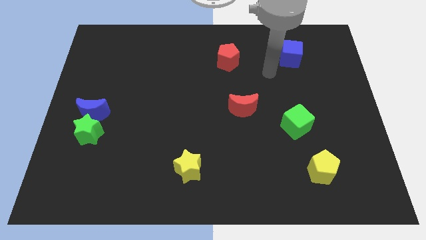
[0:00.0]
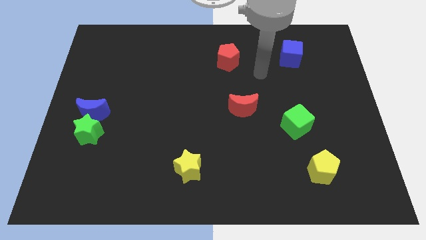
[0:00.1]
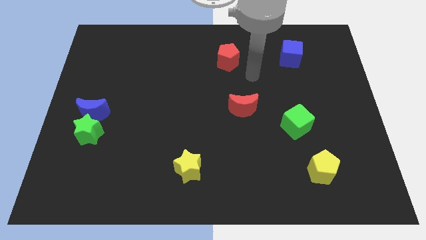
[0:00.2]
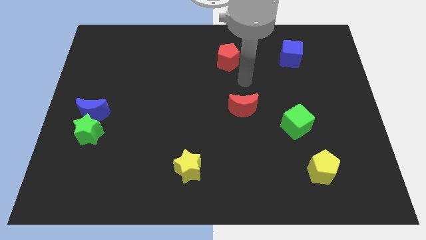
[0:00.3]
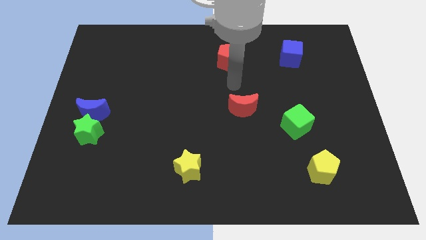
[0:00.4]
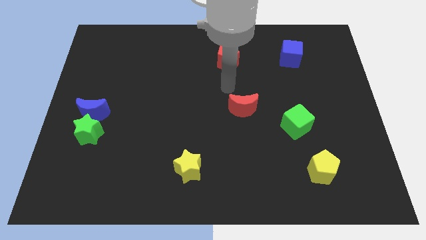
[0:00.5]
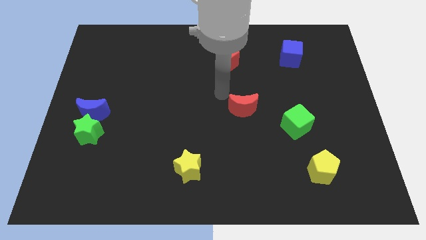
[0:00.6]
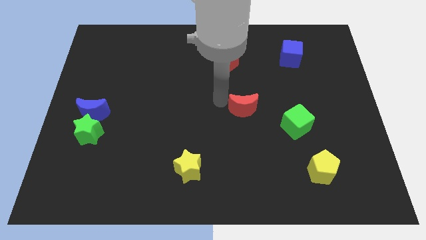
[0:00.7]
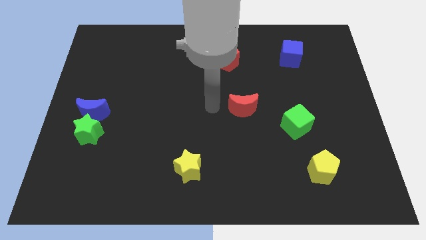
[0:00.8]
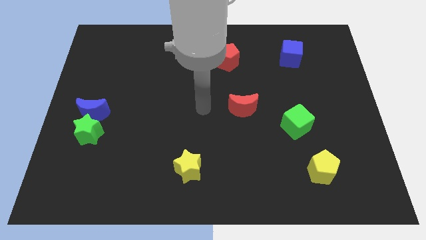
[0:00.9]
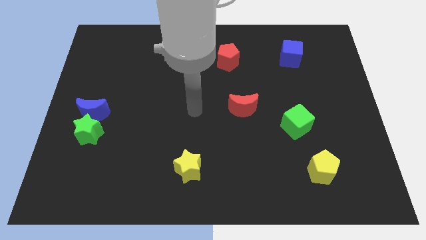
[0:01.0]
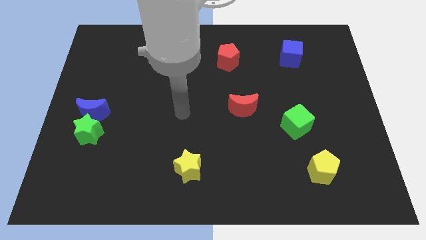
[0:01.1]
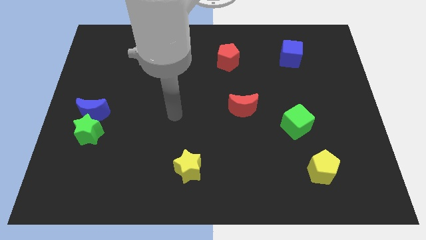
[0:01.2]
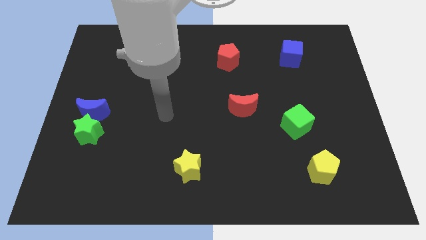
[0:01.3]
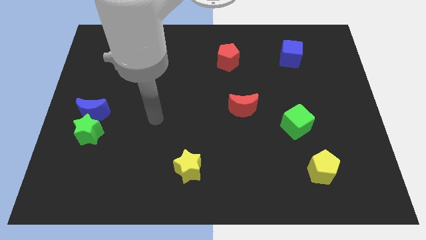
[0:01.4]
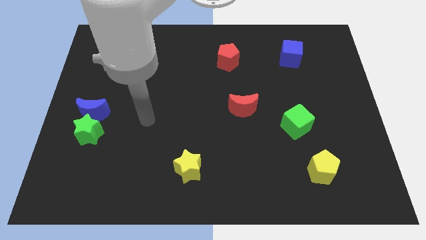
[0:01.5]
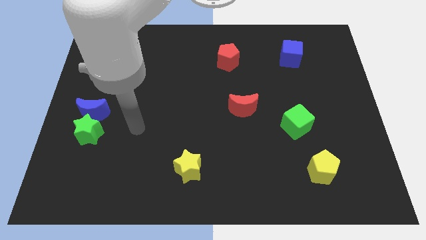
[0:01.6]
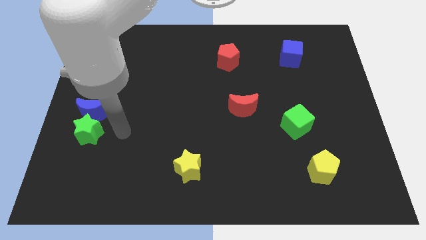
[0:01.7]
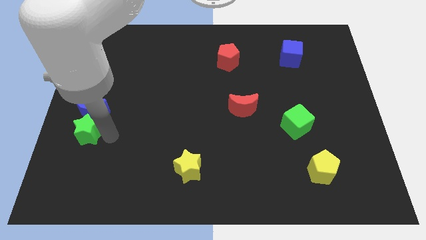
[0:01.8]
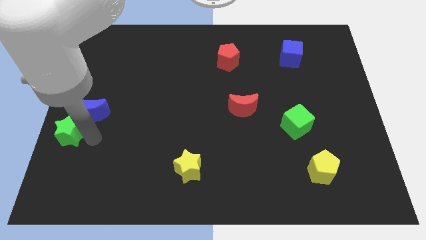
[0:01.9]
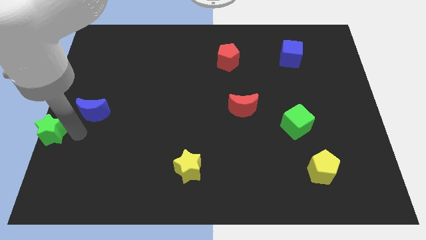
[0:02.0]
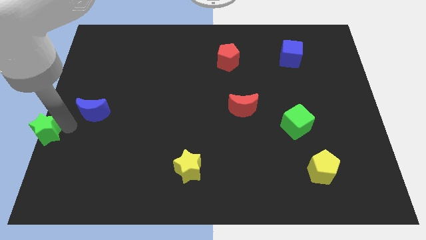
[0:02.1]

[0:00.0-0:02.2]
move the blue moon away from the green star

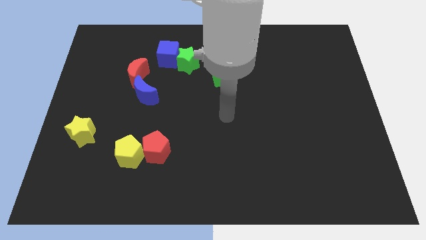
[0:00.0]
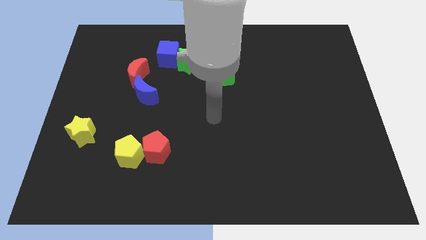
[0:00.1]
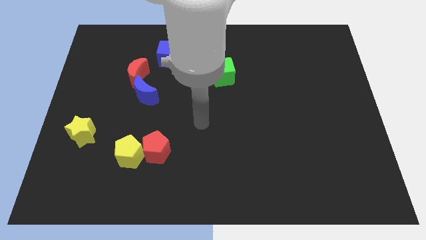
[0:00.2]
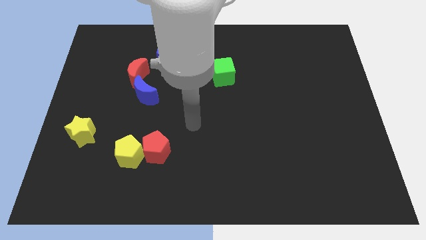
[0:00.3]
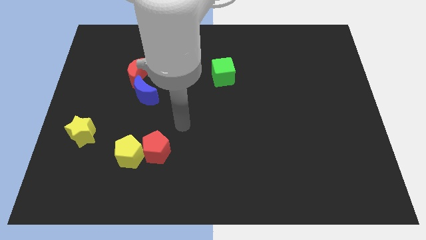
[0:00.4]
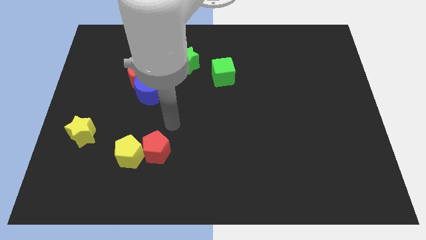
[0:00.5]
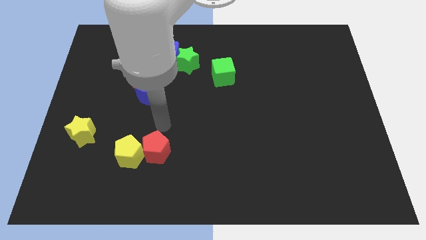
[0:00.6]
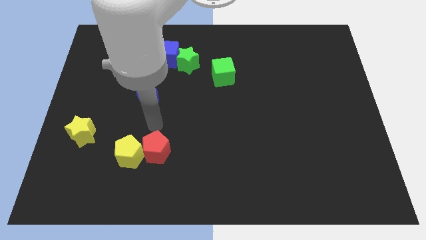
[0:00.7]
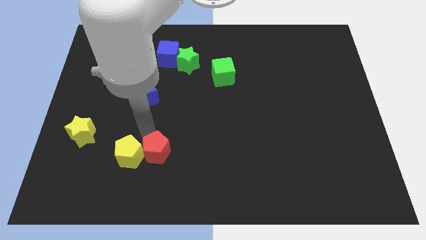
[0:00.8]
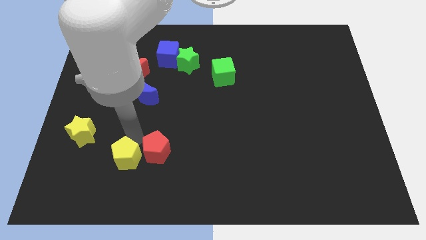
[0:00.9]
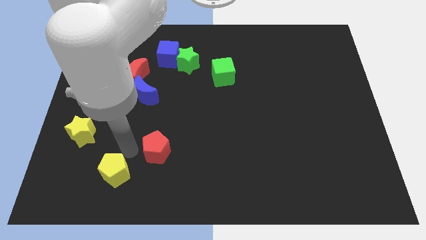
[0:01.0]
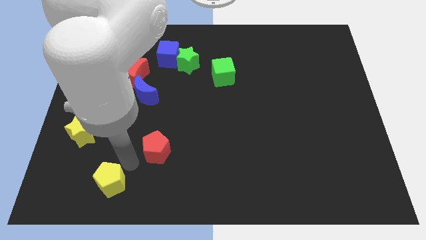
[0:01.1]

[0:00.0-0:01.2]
separate the red pentagon from the yellow pentagon

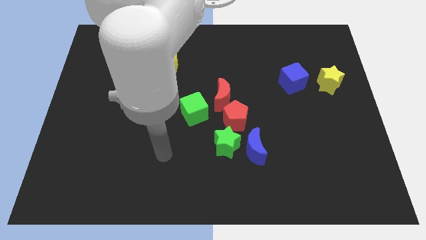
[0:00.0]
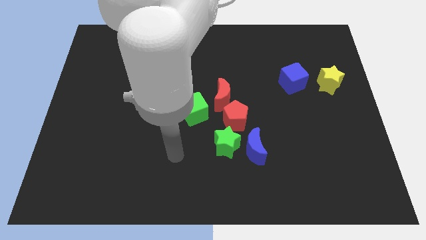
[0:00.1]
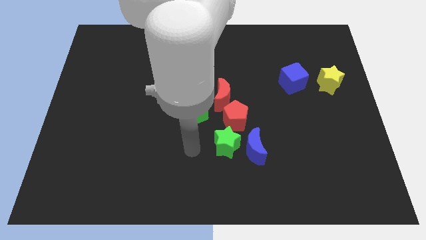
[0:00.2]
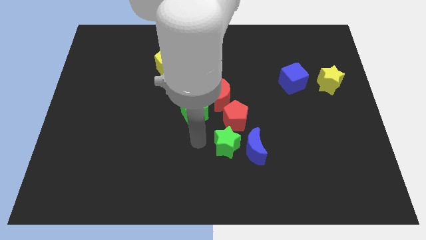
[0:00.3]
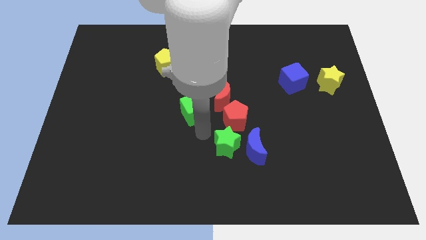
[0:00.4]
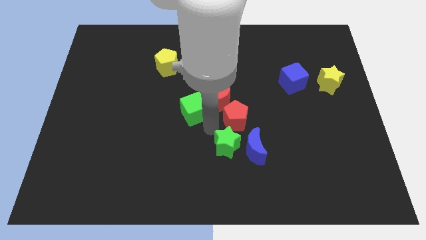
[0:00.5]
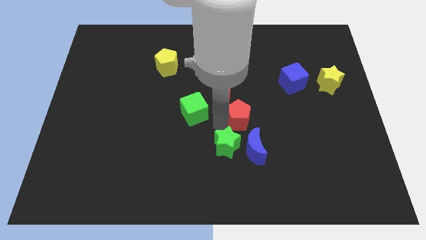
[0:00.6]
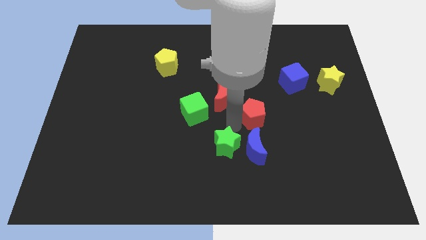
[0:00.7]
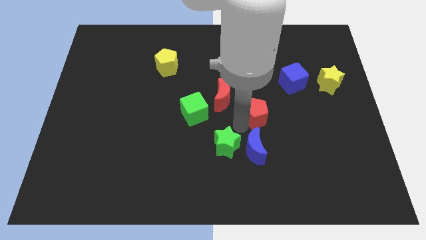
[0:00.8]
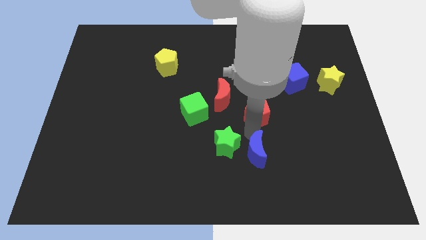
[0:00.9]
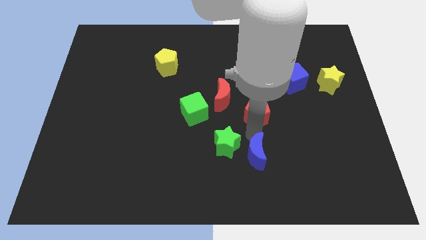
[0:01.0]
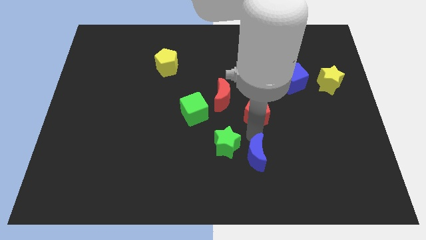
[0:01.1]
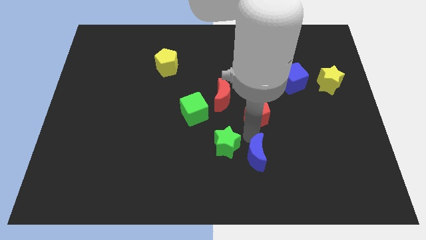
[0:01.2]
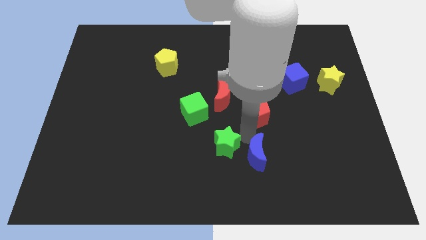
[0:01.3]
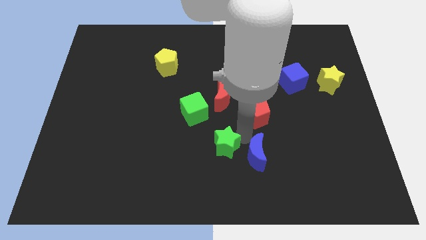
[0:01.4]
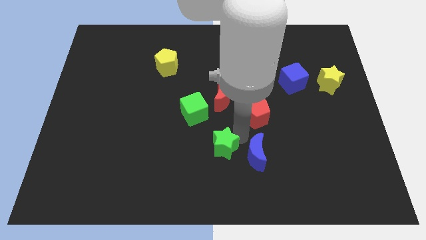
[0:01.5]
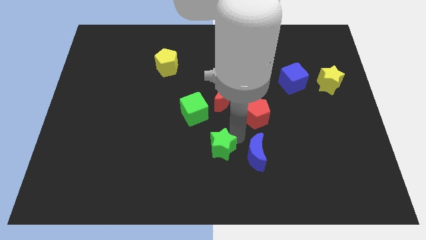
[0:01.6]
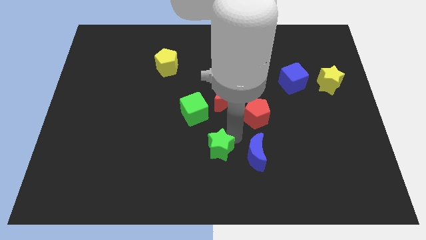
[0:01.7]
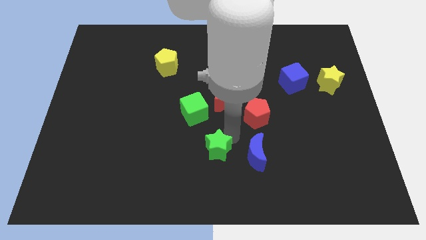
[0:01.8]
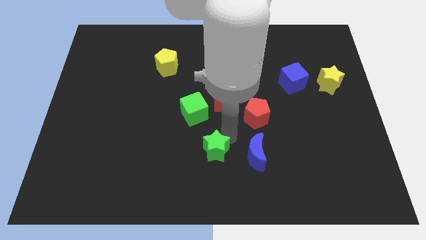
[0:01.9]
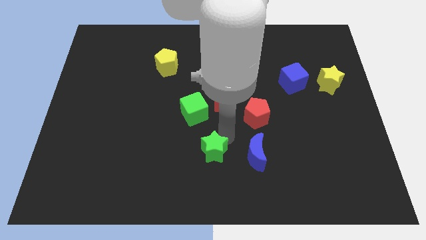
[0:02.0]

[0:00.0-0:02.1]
move the green star away from the blue moon and red pentagon

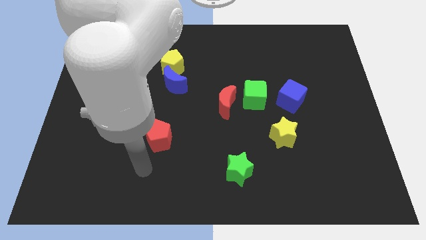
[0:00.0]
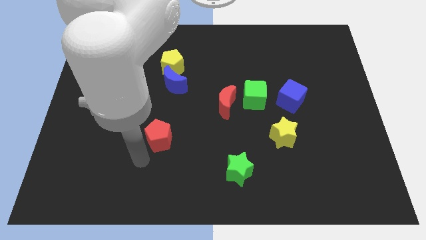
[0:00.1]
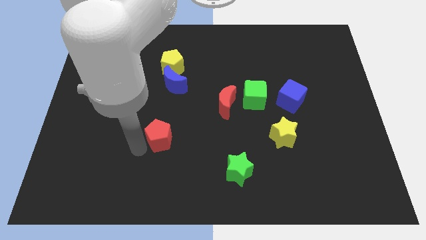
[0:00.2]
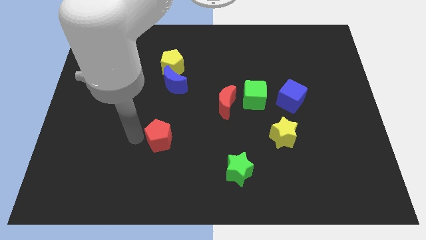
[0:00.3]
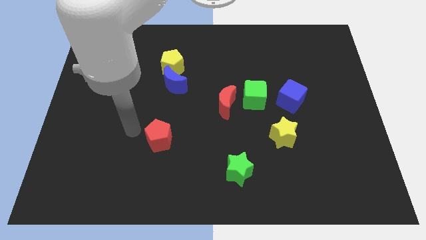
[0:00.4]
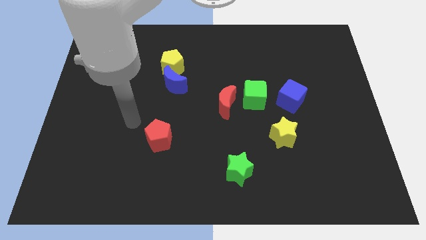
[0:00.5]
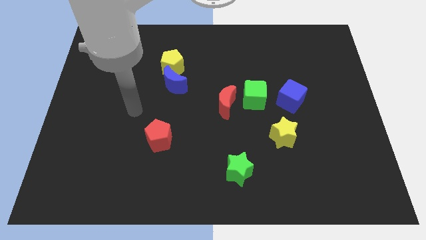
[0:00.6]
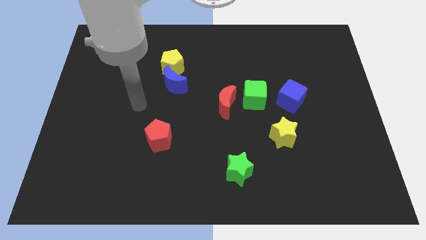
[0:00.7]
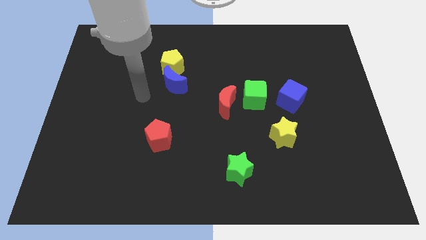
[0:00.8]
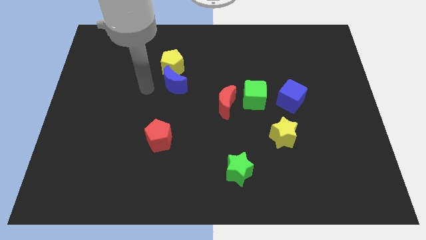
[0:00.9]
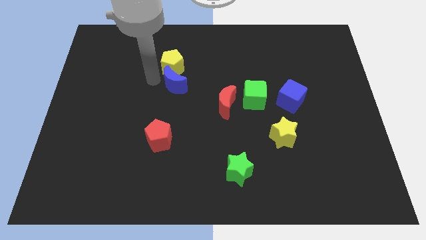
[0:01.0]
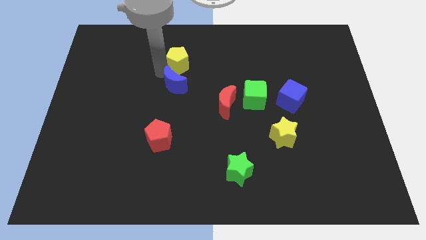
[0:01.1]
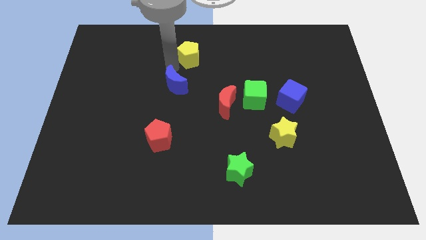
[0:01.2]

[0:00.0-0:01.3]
pull the blue moon apart from the yellow pentagon

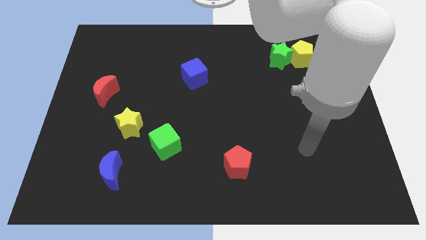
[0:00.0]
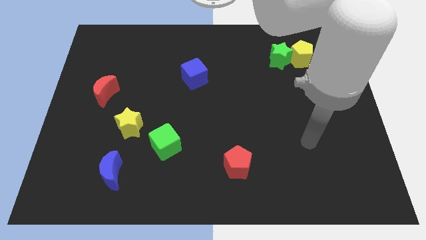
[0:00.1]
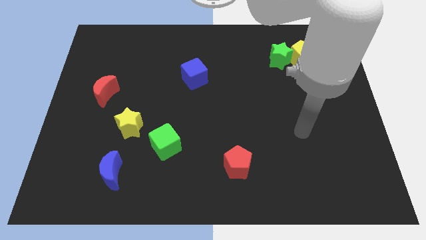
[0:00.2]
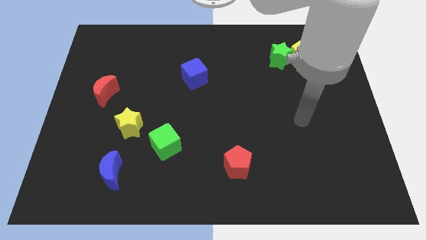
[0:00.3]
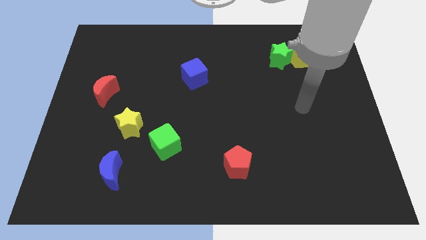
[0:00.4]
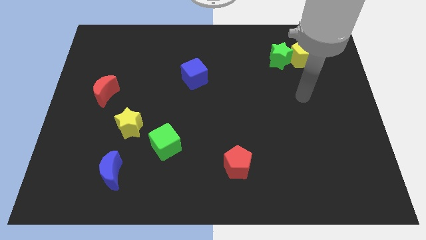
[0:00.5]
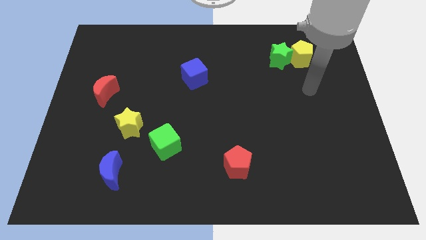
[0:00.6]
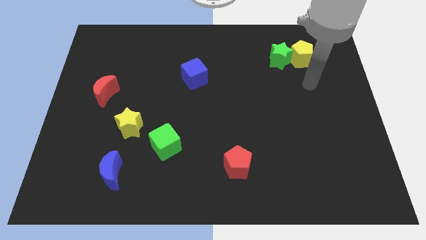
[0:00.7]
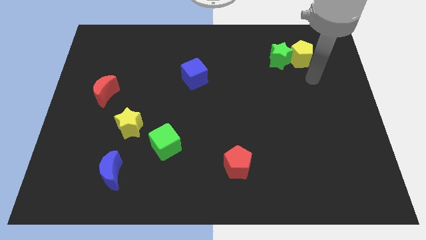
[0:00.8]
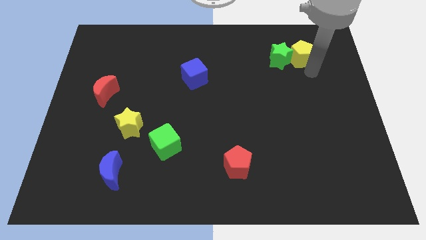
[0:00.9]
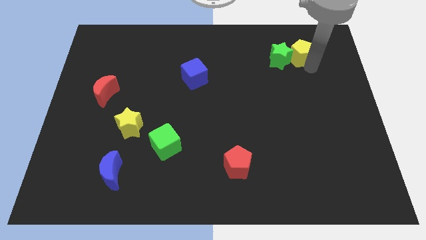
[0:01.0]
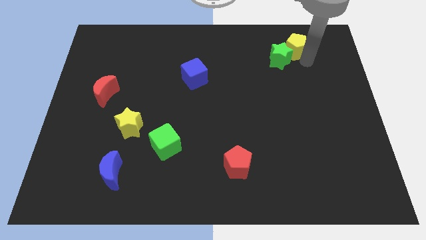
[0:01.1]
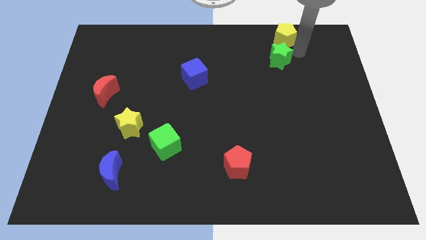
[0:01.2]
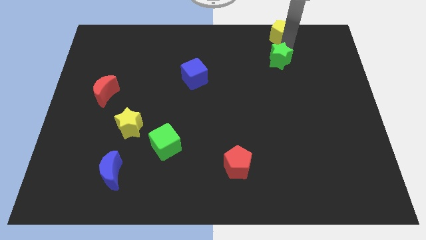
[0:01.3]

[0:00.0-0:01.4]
separate the green star from the yellow pentagon

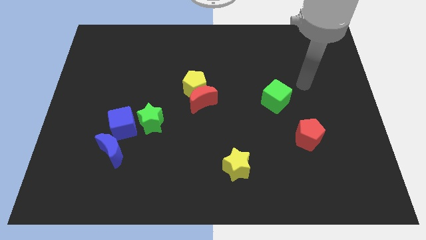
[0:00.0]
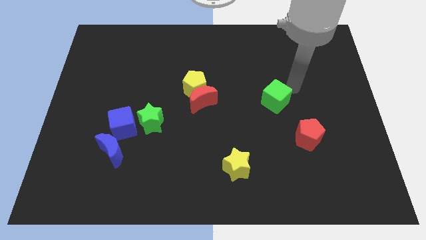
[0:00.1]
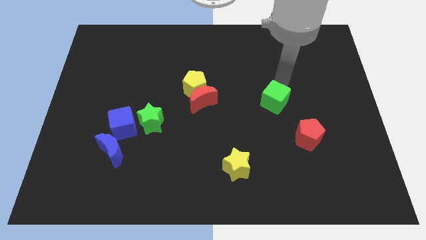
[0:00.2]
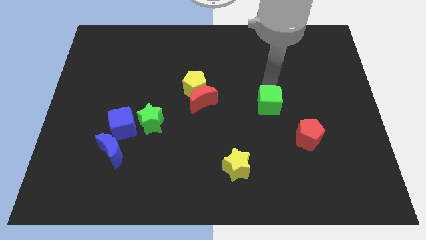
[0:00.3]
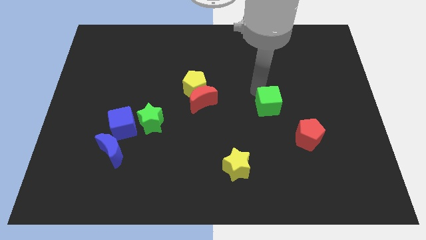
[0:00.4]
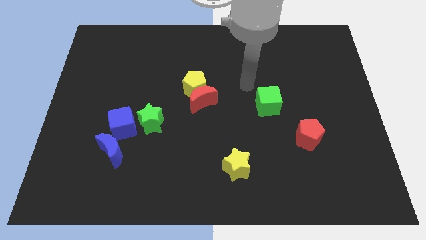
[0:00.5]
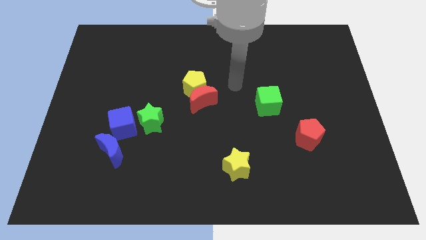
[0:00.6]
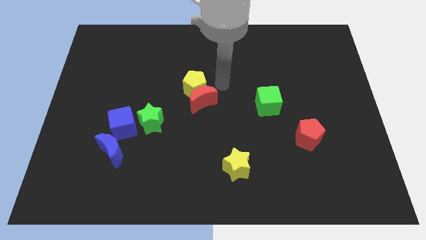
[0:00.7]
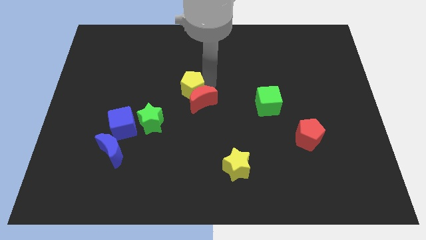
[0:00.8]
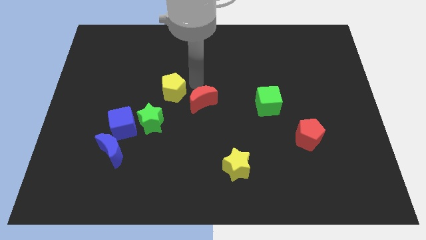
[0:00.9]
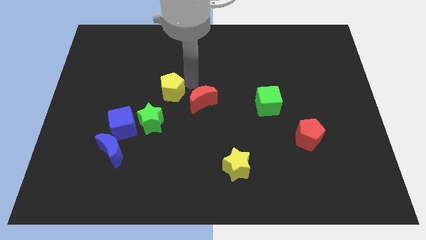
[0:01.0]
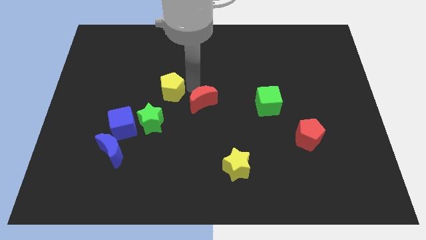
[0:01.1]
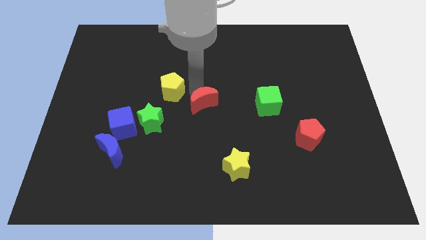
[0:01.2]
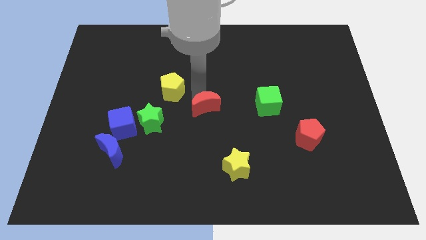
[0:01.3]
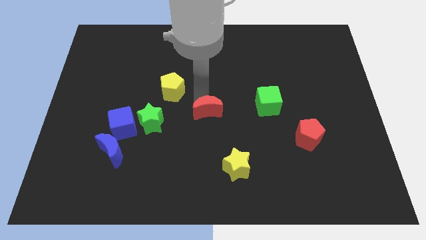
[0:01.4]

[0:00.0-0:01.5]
move the red moon away from the yellow pentagon
